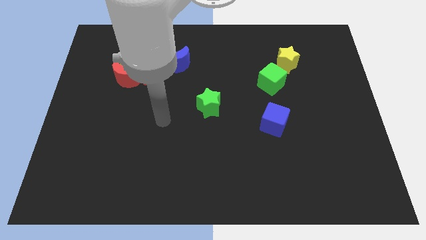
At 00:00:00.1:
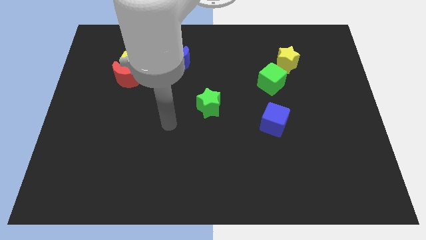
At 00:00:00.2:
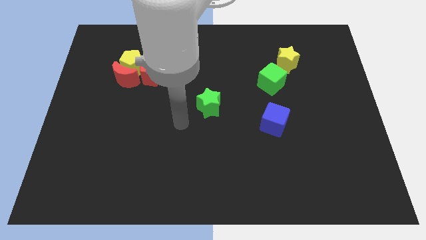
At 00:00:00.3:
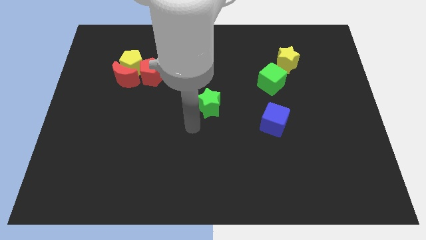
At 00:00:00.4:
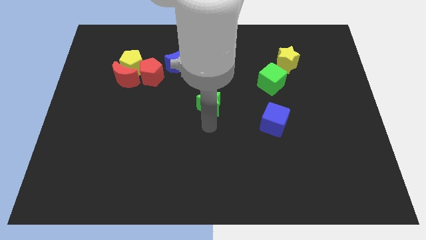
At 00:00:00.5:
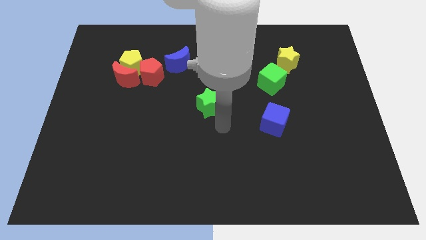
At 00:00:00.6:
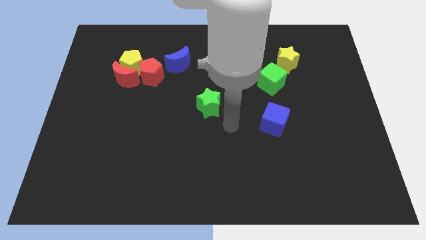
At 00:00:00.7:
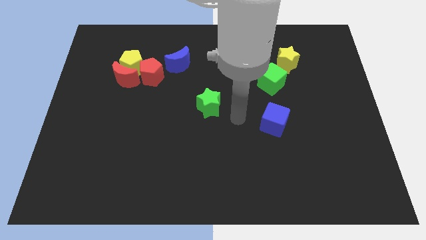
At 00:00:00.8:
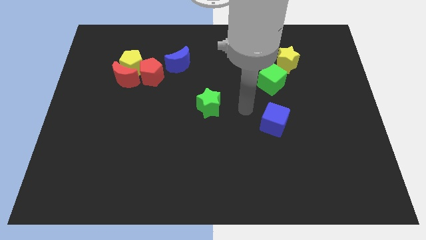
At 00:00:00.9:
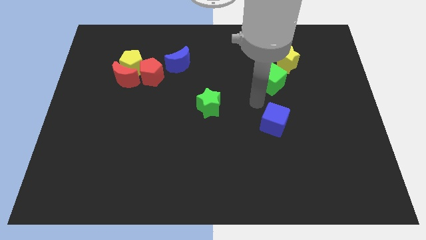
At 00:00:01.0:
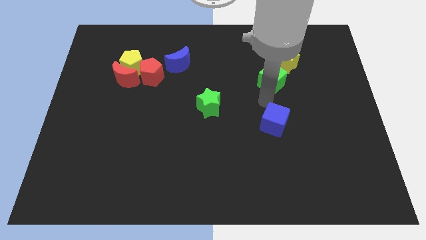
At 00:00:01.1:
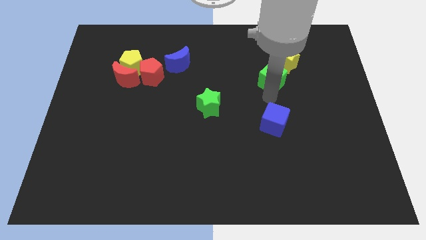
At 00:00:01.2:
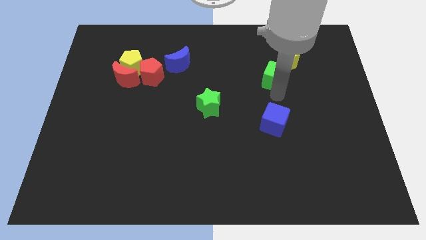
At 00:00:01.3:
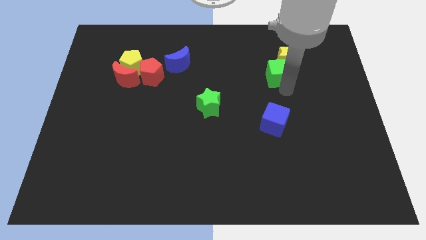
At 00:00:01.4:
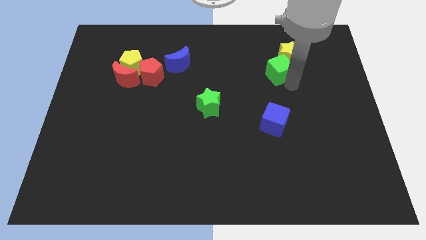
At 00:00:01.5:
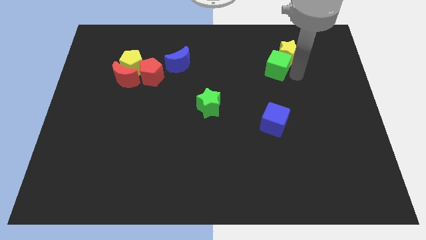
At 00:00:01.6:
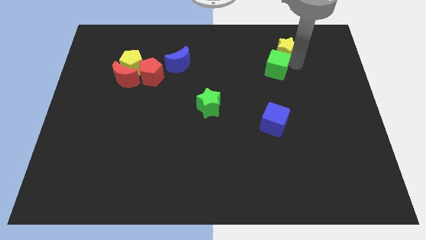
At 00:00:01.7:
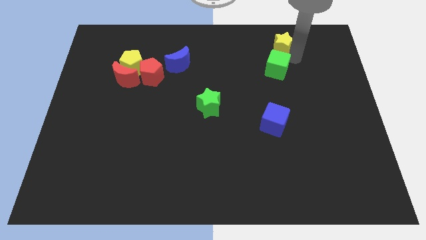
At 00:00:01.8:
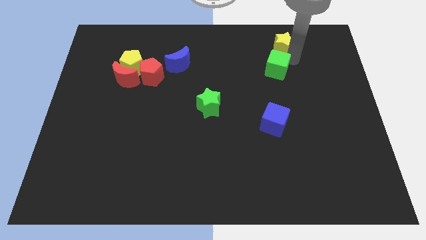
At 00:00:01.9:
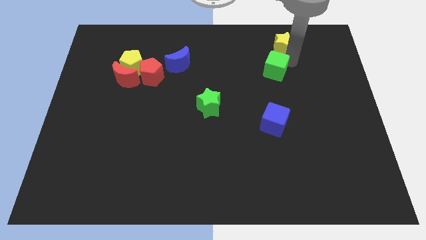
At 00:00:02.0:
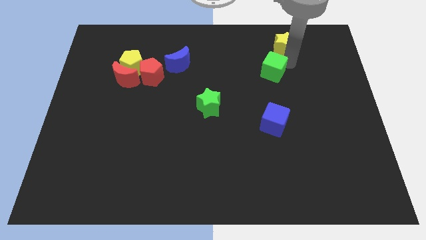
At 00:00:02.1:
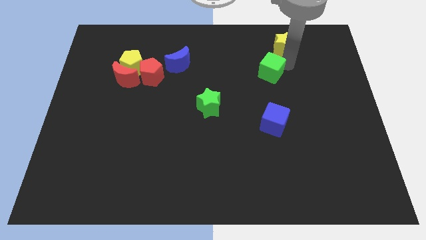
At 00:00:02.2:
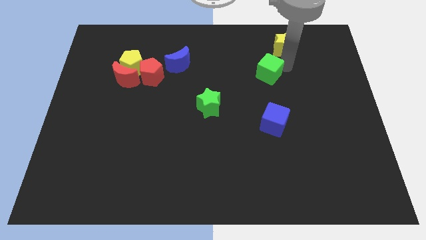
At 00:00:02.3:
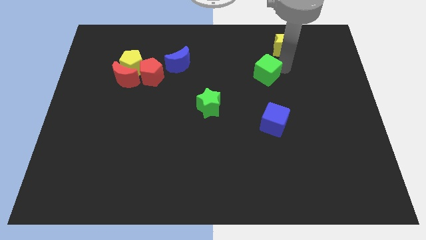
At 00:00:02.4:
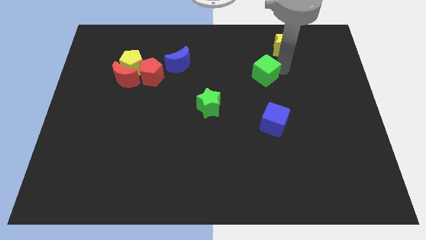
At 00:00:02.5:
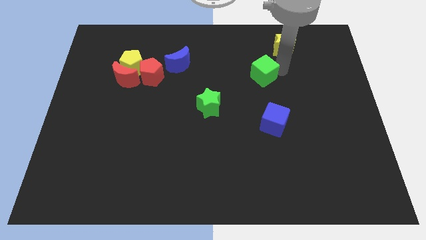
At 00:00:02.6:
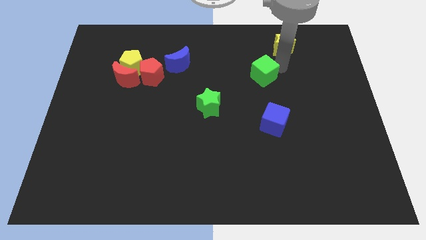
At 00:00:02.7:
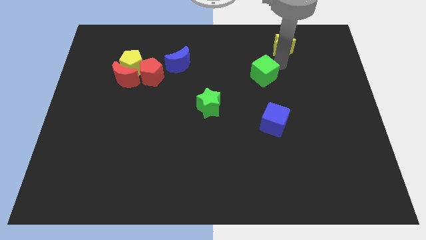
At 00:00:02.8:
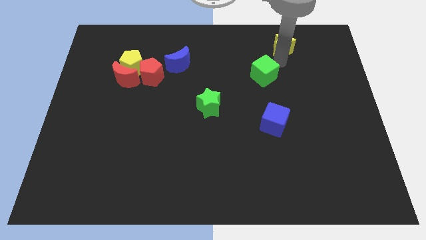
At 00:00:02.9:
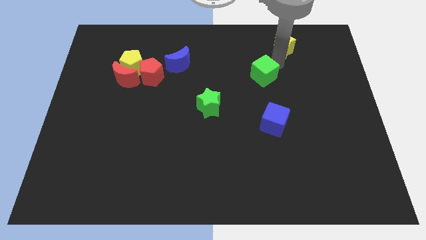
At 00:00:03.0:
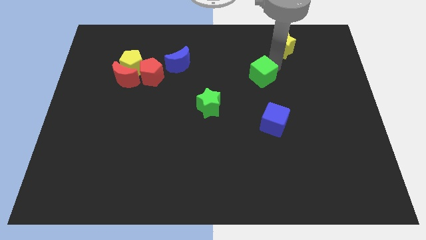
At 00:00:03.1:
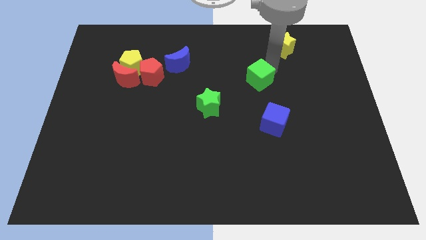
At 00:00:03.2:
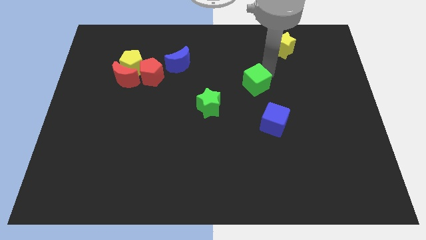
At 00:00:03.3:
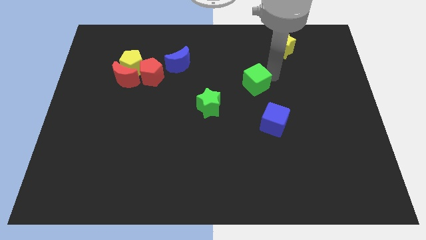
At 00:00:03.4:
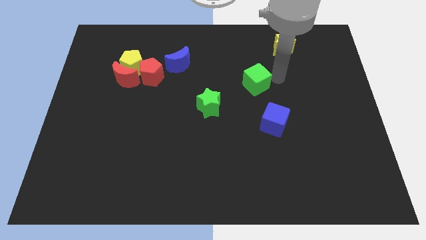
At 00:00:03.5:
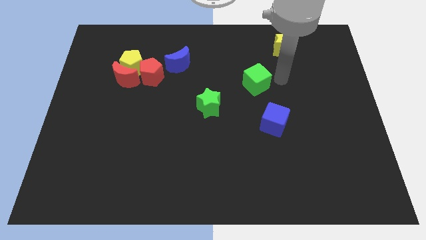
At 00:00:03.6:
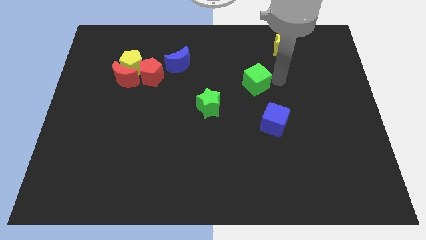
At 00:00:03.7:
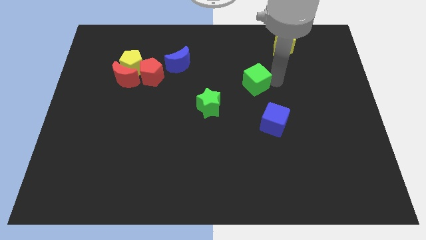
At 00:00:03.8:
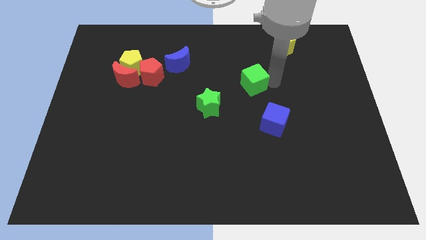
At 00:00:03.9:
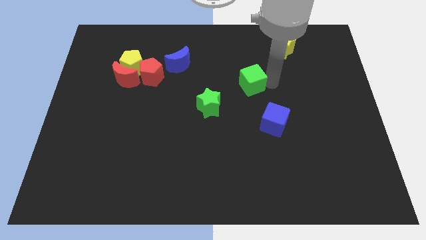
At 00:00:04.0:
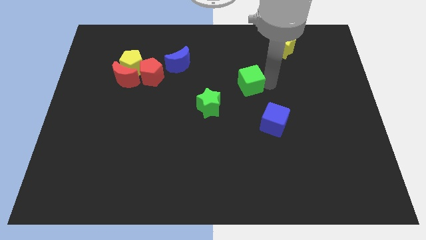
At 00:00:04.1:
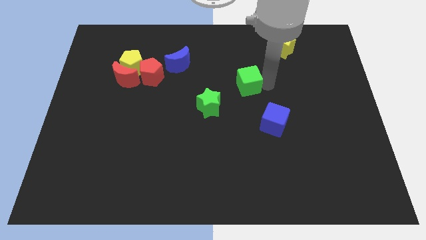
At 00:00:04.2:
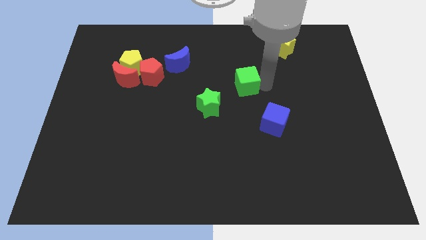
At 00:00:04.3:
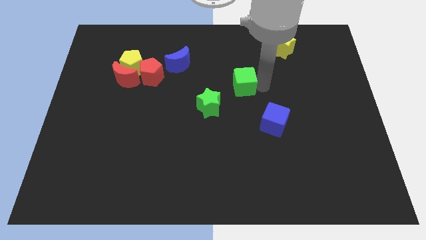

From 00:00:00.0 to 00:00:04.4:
push the green cube to the left a little

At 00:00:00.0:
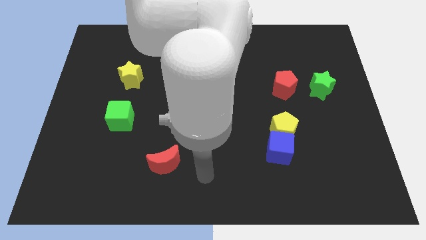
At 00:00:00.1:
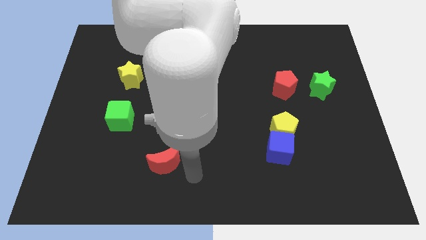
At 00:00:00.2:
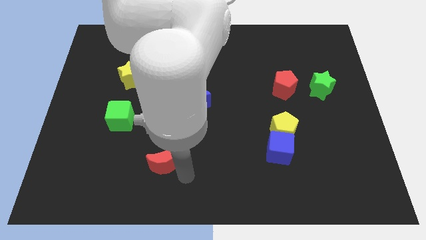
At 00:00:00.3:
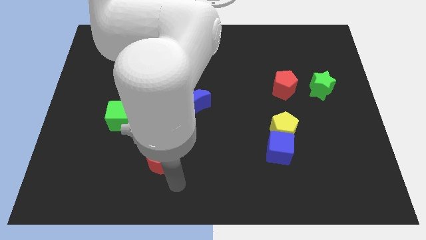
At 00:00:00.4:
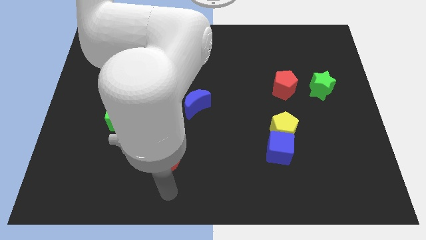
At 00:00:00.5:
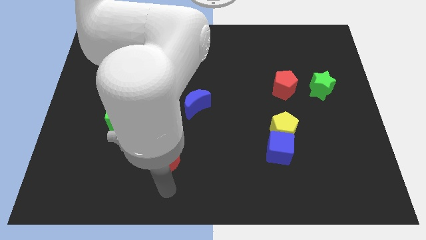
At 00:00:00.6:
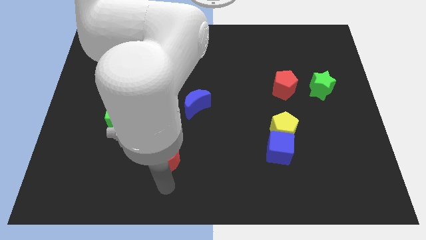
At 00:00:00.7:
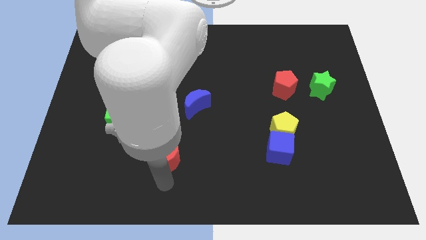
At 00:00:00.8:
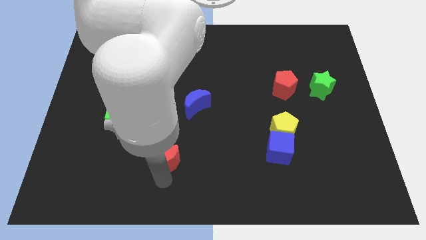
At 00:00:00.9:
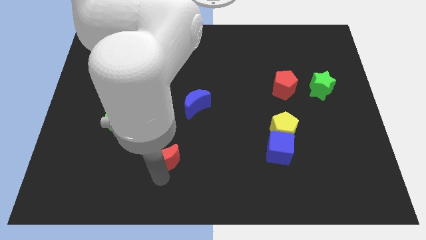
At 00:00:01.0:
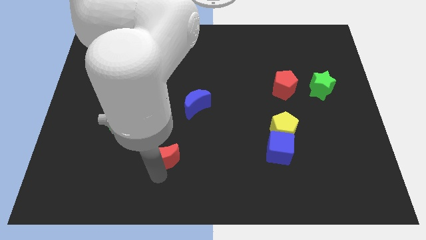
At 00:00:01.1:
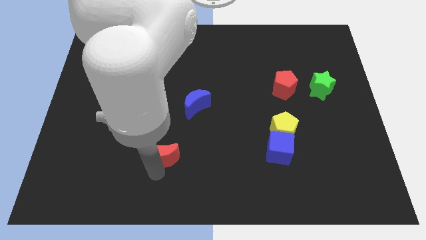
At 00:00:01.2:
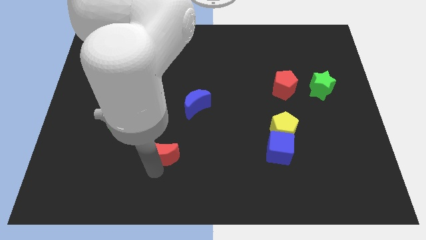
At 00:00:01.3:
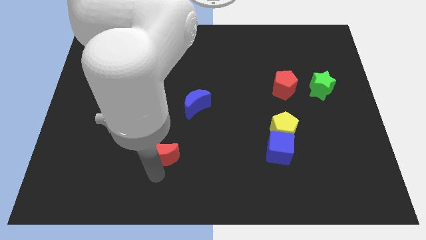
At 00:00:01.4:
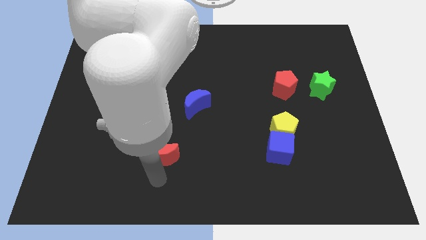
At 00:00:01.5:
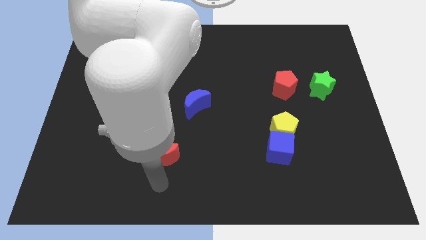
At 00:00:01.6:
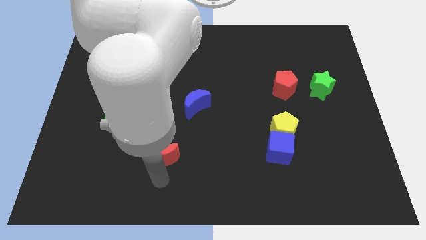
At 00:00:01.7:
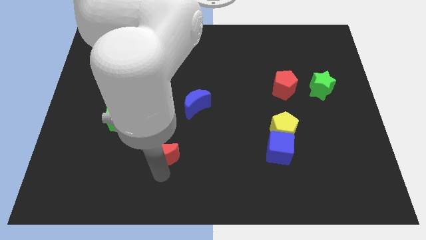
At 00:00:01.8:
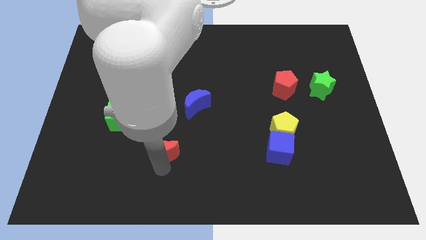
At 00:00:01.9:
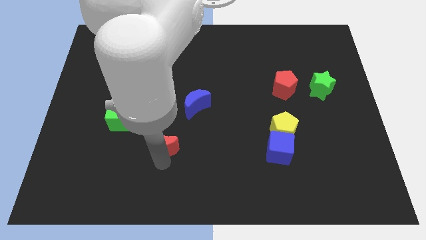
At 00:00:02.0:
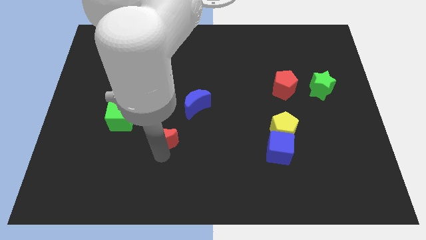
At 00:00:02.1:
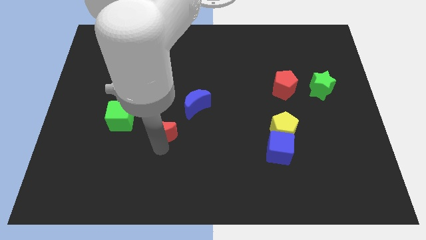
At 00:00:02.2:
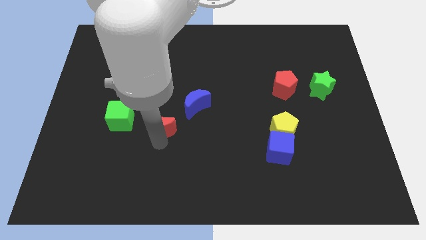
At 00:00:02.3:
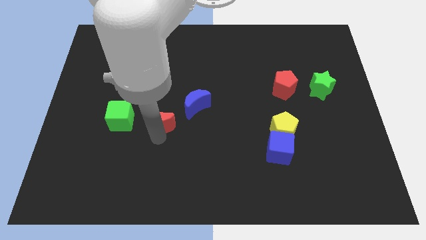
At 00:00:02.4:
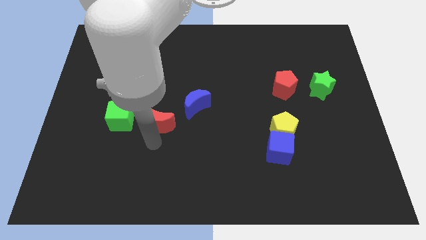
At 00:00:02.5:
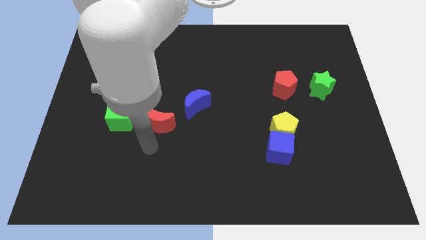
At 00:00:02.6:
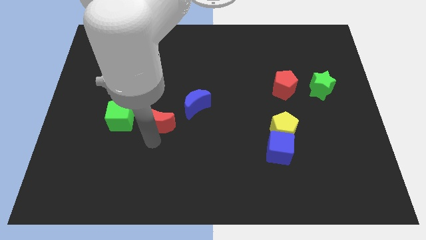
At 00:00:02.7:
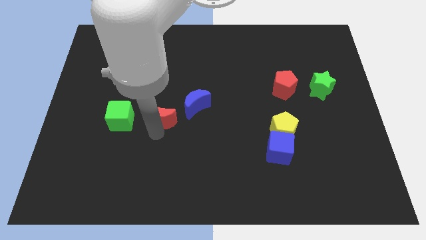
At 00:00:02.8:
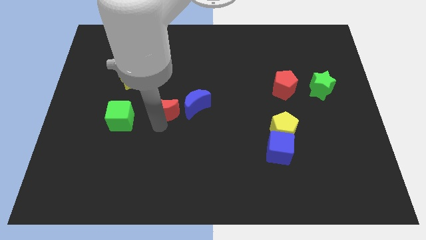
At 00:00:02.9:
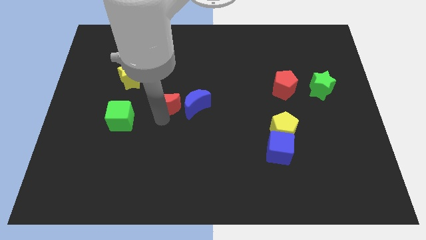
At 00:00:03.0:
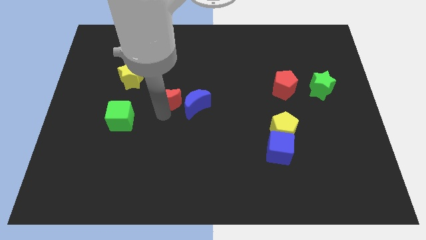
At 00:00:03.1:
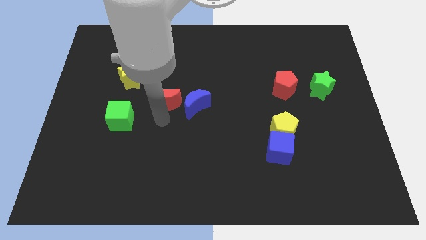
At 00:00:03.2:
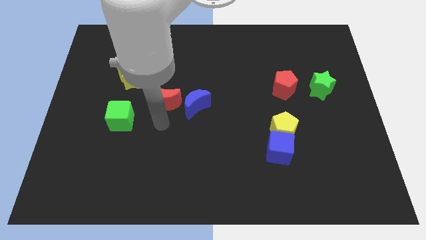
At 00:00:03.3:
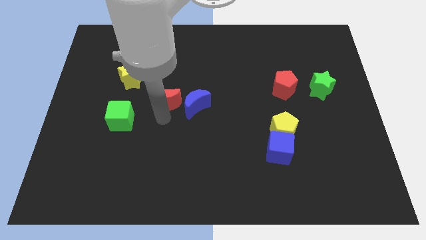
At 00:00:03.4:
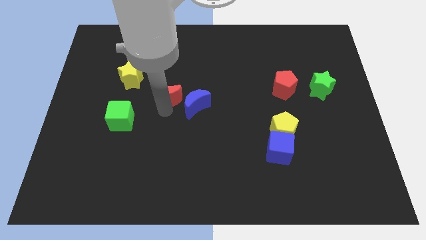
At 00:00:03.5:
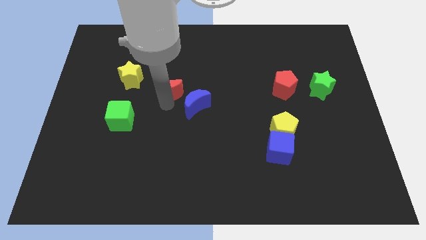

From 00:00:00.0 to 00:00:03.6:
move the red moon up
